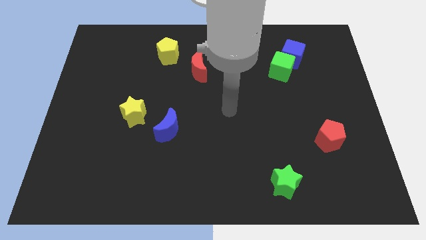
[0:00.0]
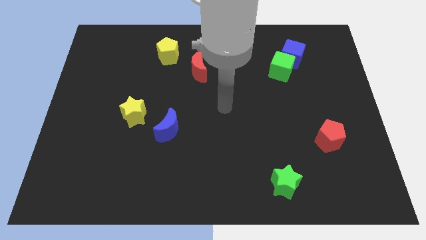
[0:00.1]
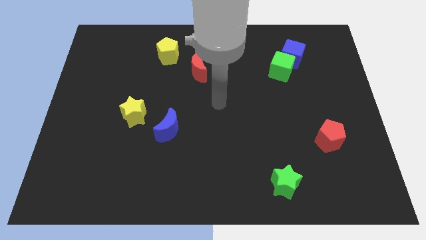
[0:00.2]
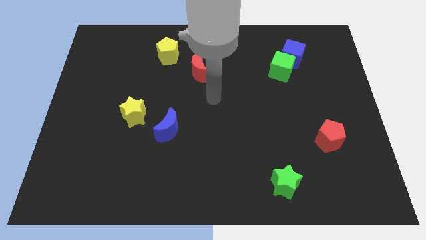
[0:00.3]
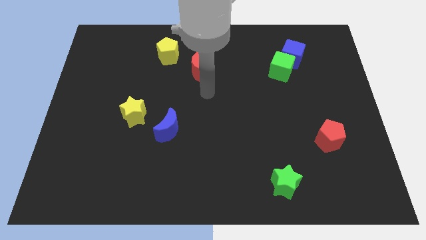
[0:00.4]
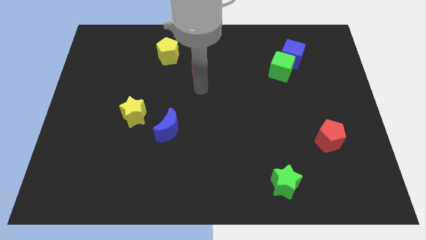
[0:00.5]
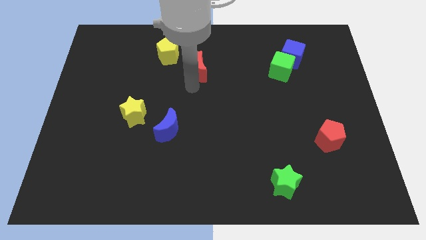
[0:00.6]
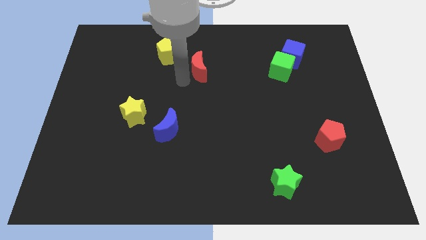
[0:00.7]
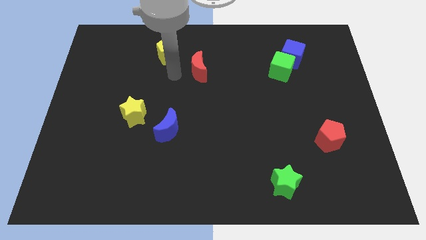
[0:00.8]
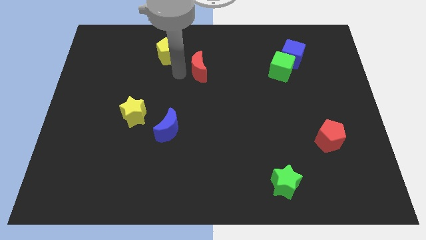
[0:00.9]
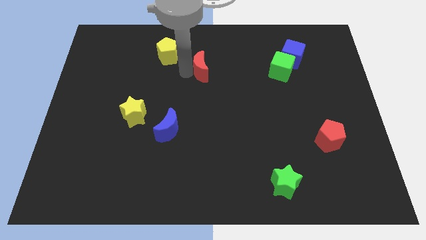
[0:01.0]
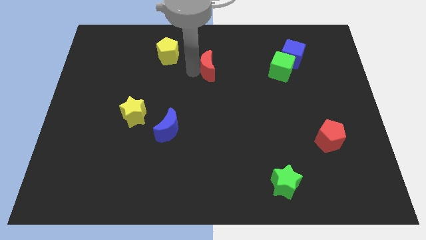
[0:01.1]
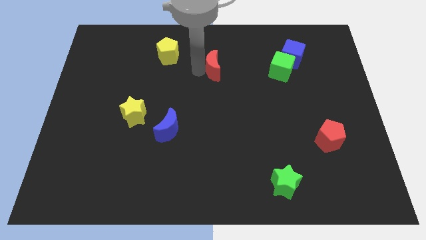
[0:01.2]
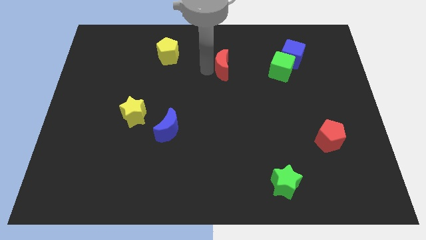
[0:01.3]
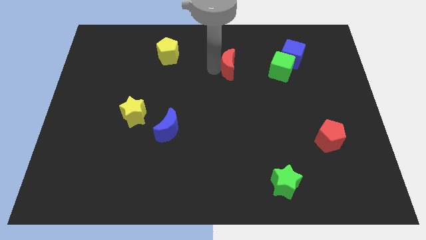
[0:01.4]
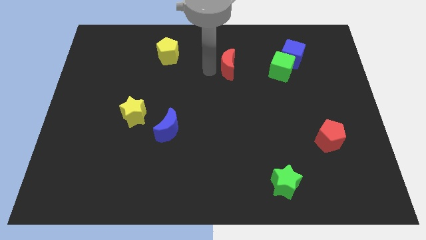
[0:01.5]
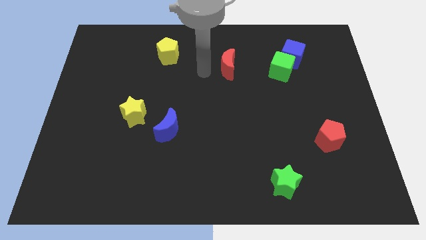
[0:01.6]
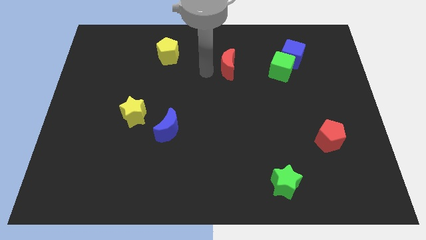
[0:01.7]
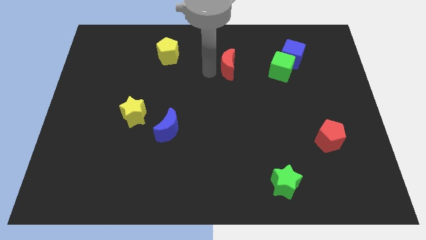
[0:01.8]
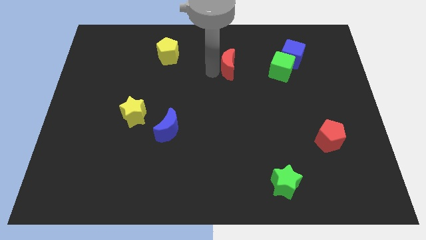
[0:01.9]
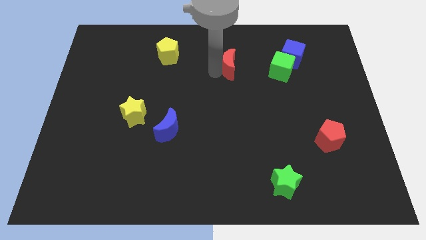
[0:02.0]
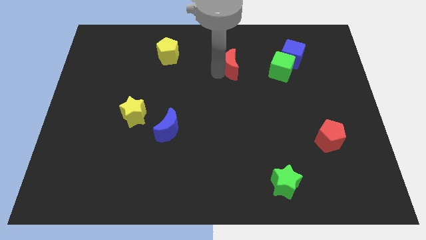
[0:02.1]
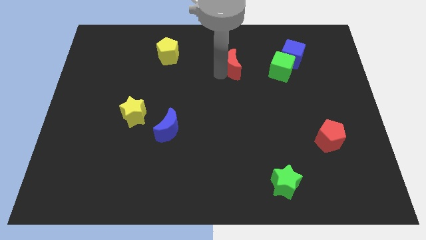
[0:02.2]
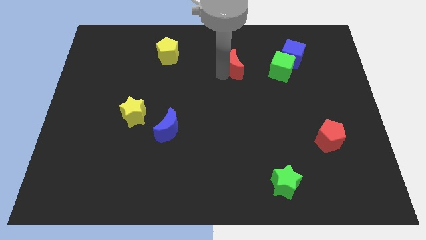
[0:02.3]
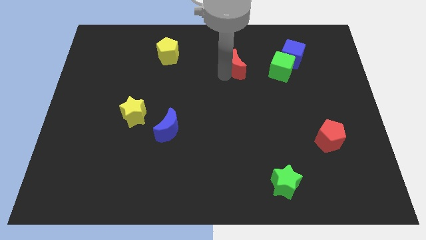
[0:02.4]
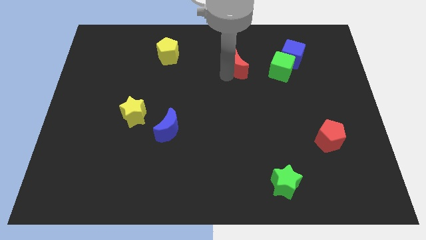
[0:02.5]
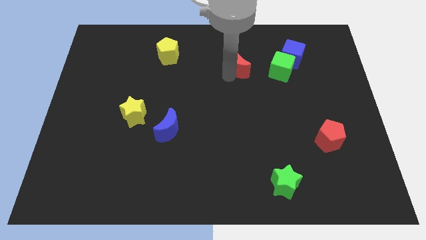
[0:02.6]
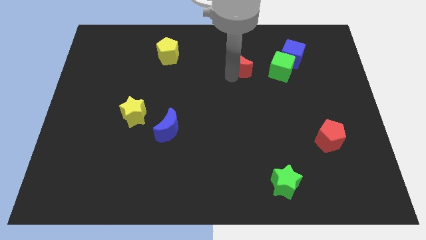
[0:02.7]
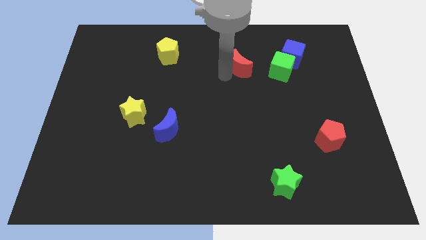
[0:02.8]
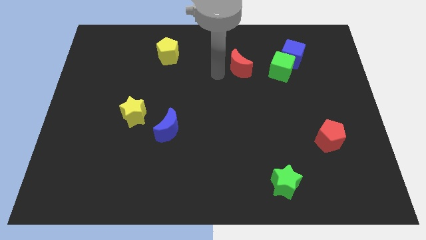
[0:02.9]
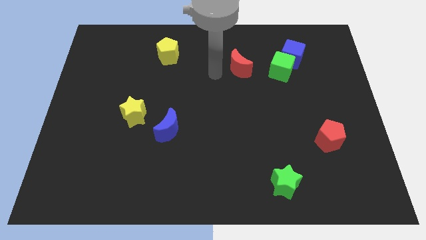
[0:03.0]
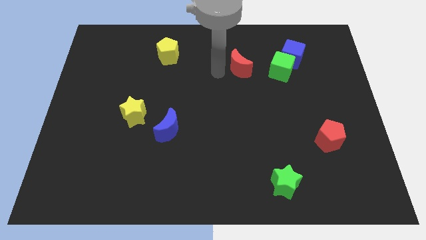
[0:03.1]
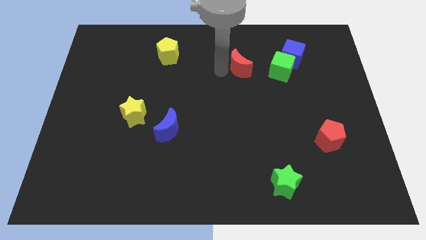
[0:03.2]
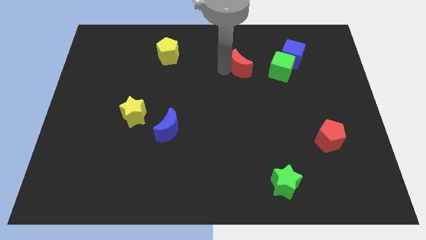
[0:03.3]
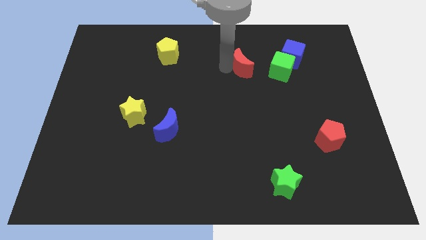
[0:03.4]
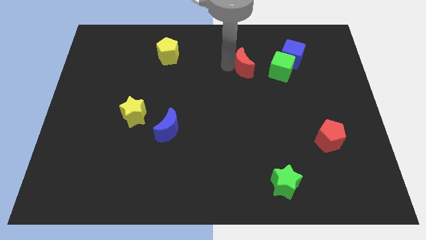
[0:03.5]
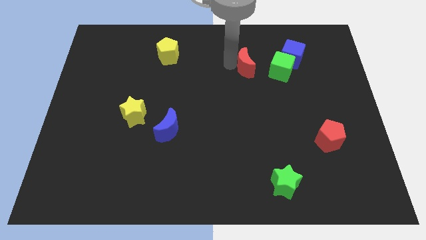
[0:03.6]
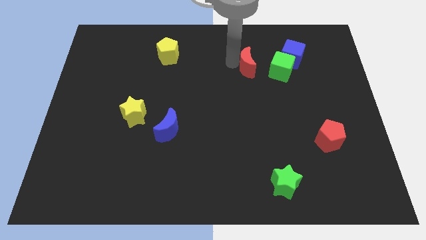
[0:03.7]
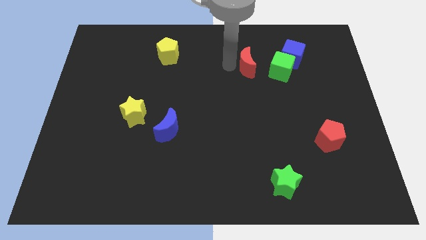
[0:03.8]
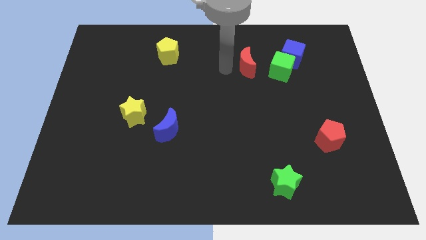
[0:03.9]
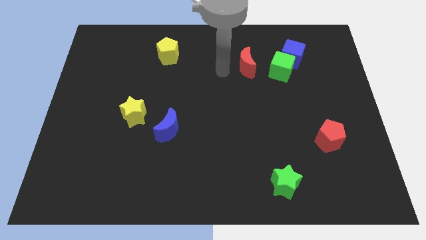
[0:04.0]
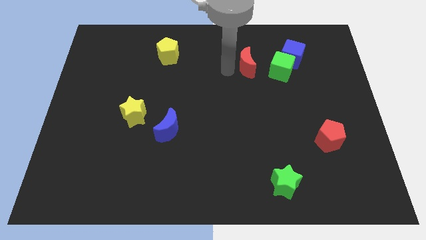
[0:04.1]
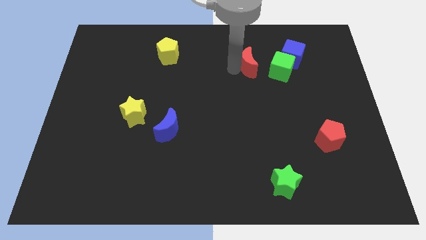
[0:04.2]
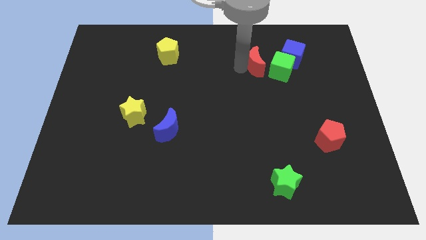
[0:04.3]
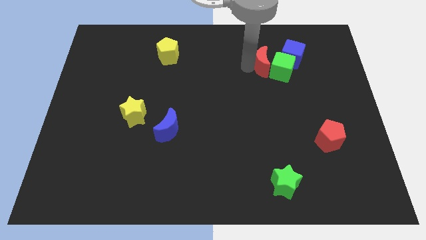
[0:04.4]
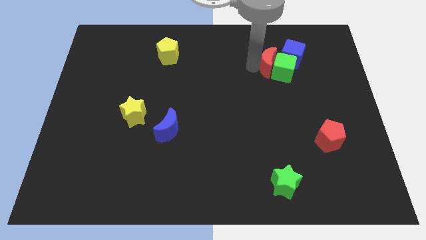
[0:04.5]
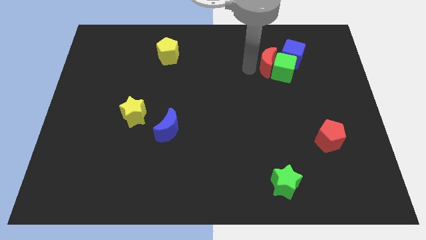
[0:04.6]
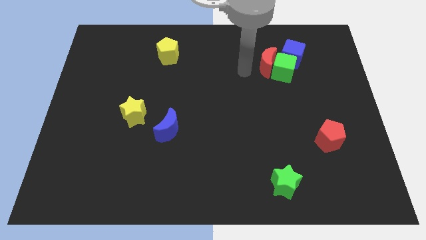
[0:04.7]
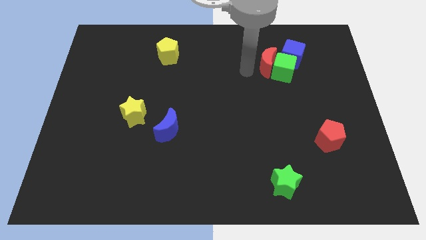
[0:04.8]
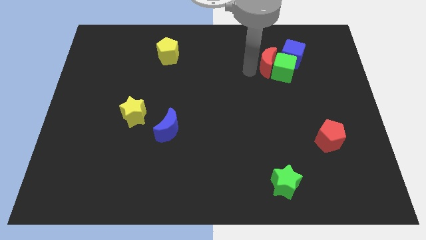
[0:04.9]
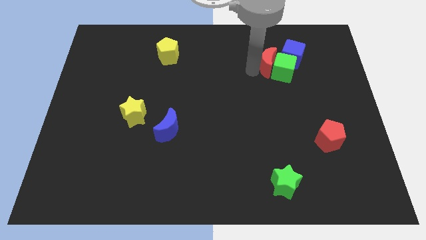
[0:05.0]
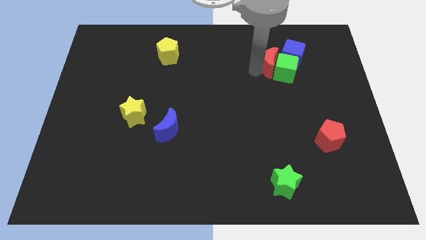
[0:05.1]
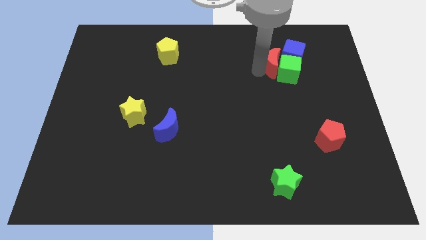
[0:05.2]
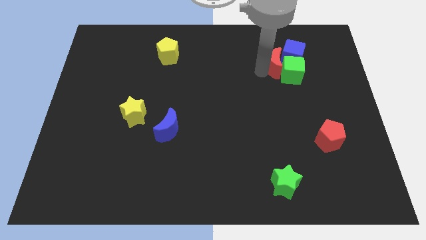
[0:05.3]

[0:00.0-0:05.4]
put the red moon towards the blue cube
